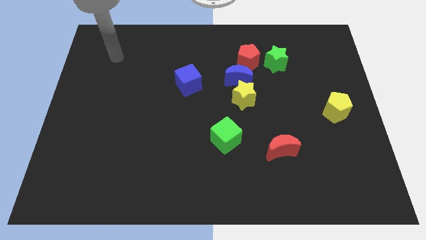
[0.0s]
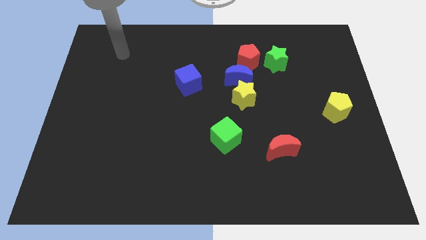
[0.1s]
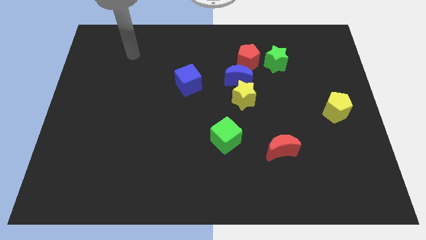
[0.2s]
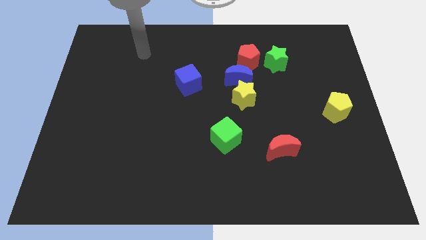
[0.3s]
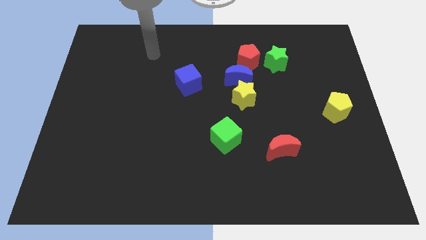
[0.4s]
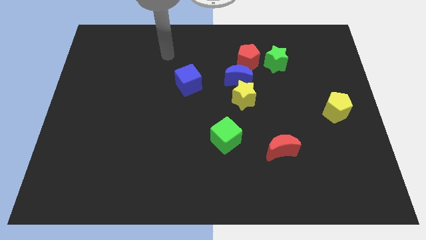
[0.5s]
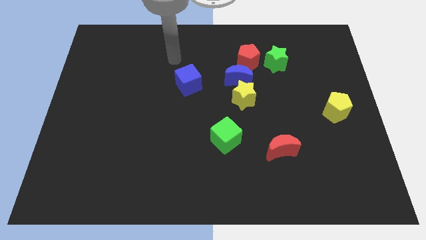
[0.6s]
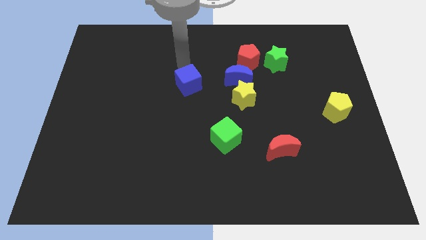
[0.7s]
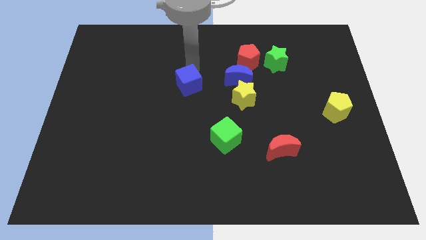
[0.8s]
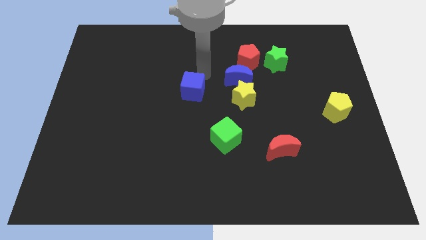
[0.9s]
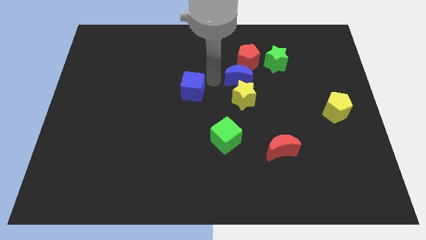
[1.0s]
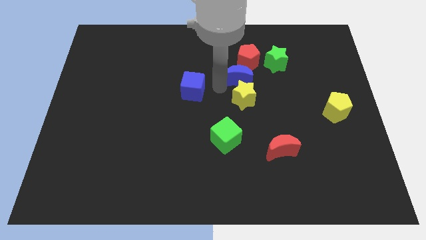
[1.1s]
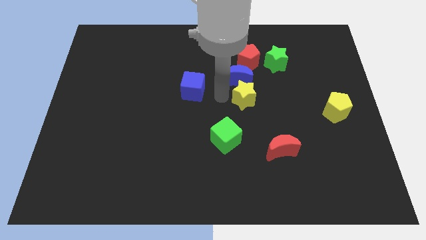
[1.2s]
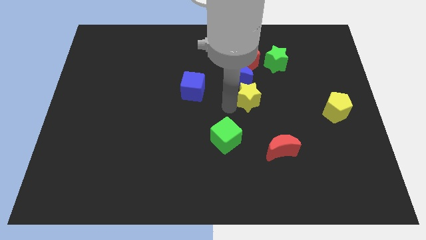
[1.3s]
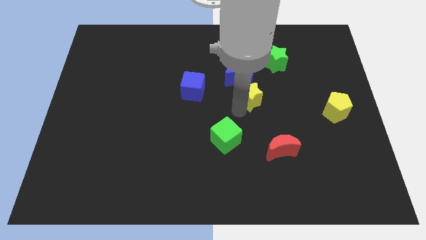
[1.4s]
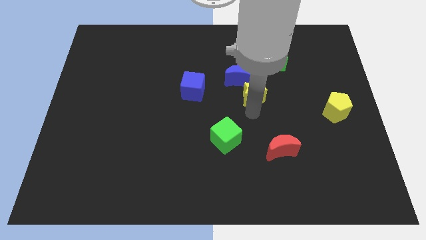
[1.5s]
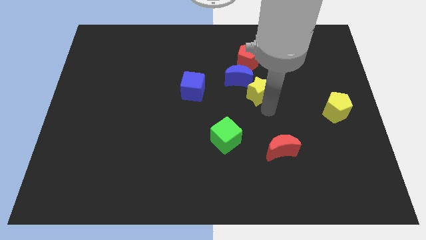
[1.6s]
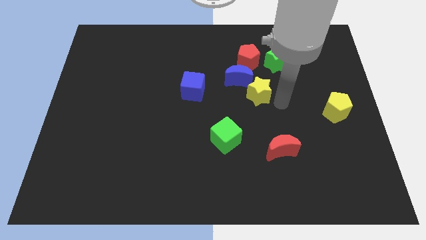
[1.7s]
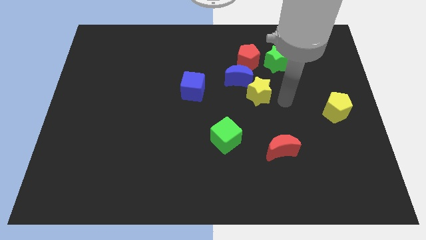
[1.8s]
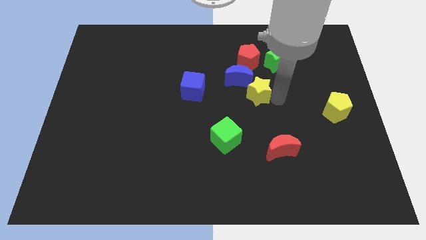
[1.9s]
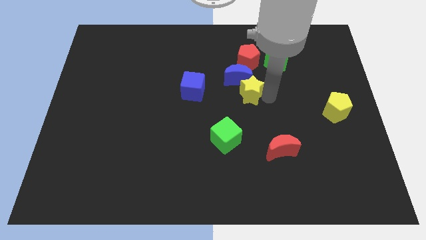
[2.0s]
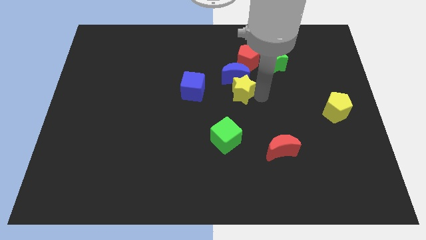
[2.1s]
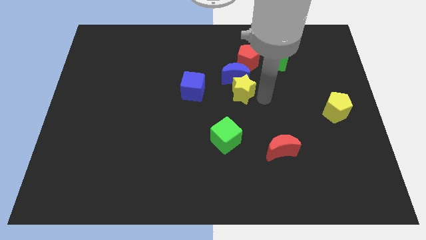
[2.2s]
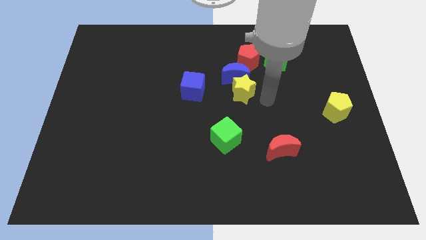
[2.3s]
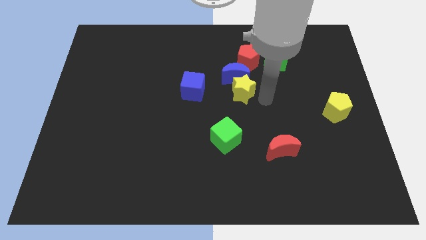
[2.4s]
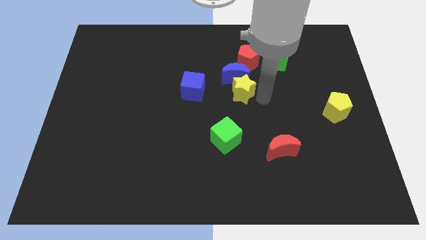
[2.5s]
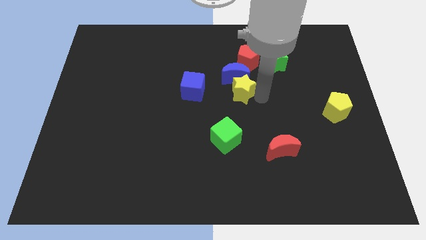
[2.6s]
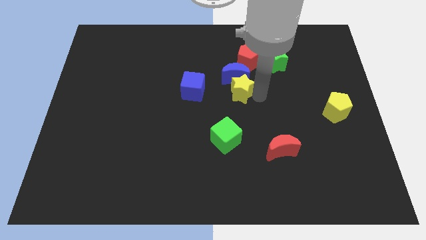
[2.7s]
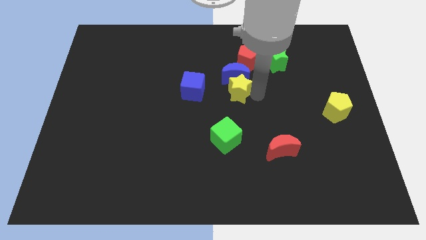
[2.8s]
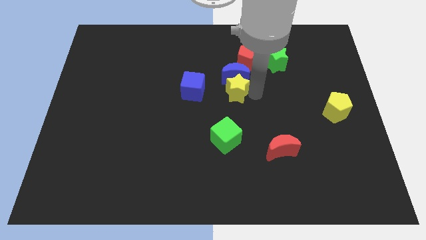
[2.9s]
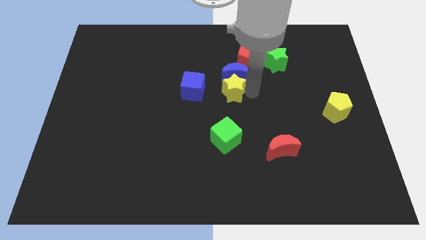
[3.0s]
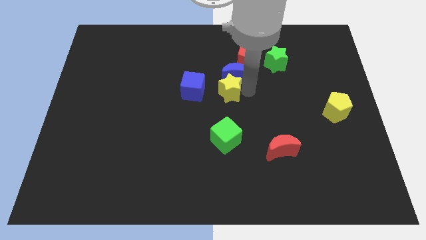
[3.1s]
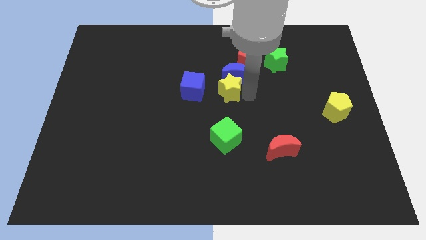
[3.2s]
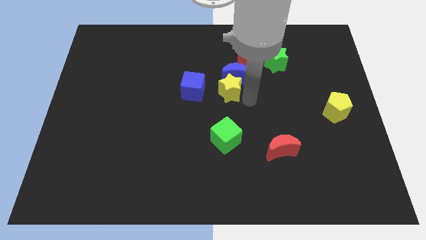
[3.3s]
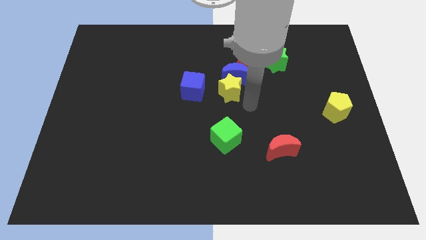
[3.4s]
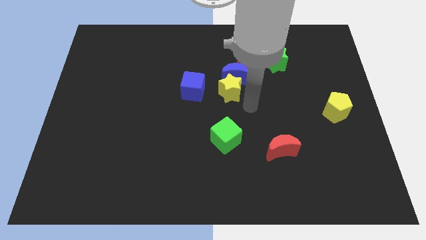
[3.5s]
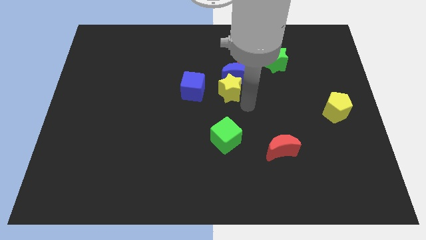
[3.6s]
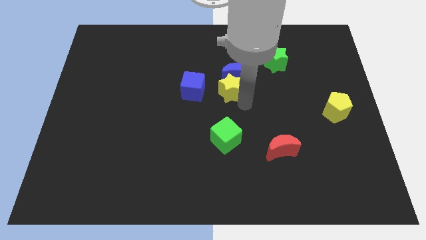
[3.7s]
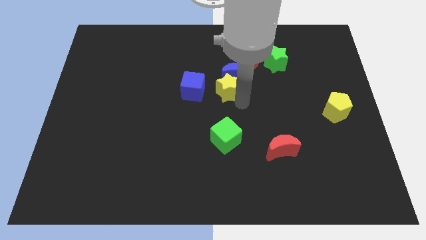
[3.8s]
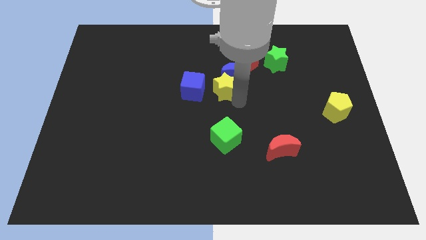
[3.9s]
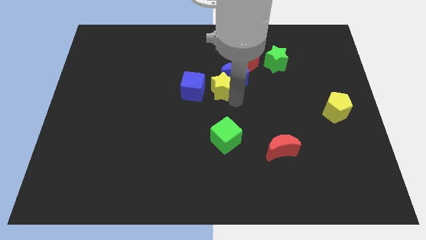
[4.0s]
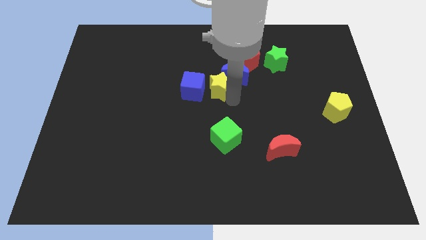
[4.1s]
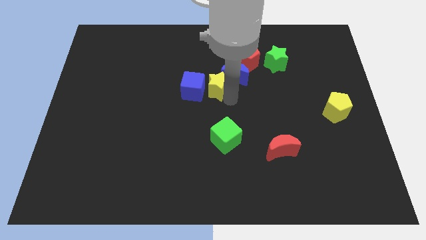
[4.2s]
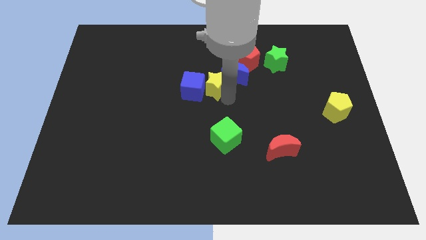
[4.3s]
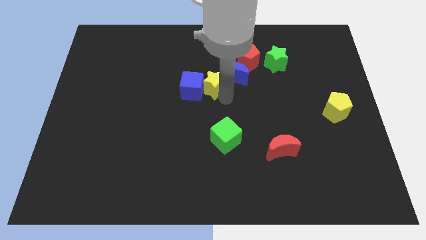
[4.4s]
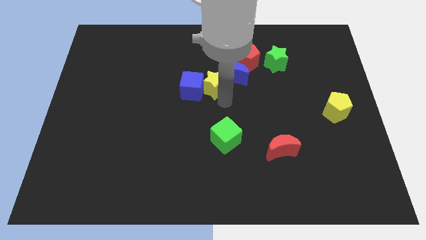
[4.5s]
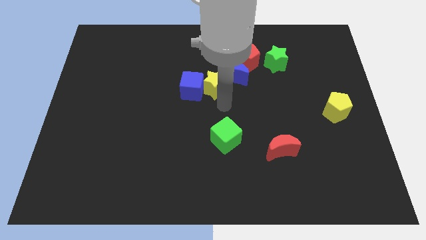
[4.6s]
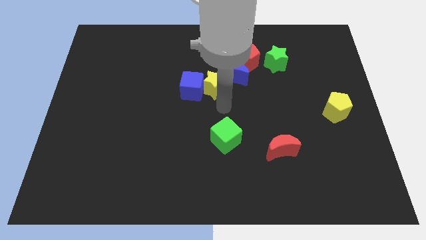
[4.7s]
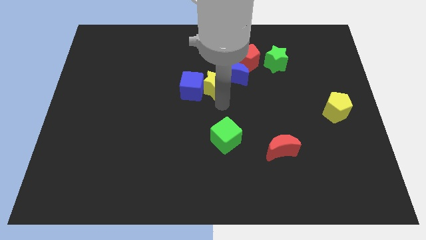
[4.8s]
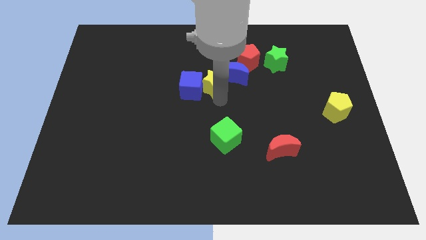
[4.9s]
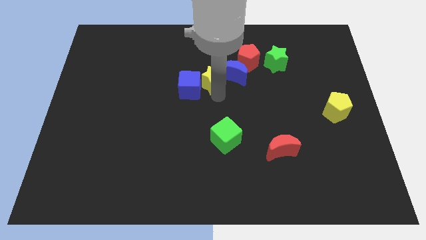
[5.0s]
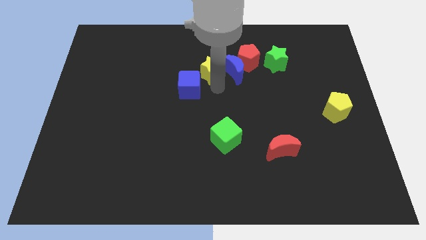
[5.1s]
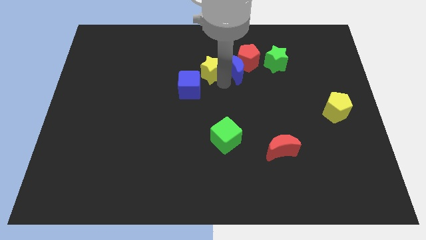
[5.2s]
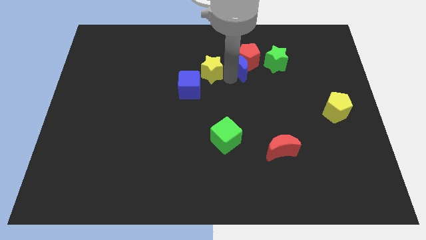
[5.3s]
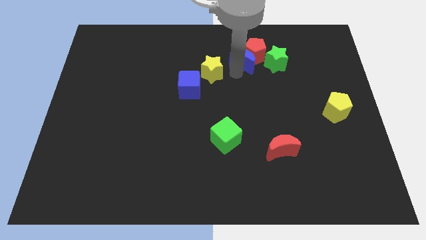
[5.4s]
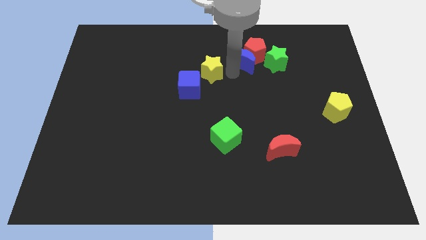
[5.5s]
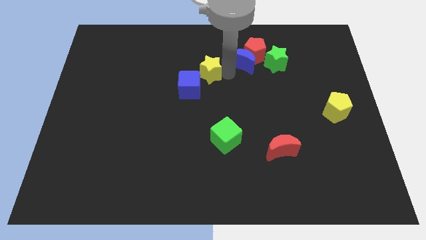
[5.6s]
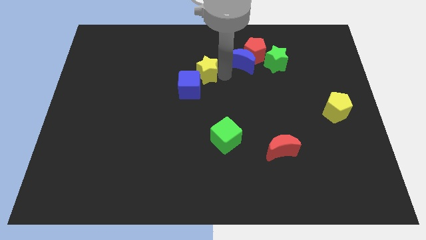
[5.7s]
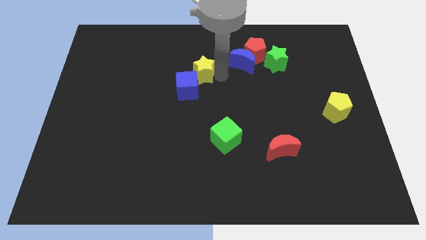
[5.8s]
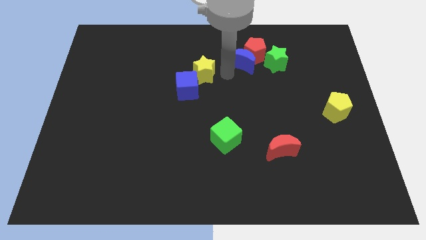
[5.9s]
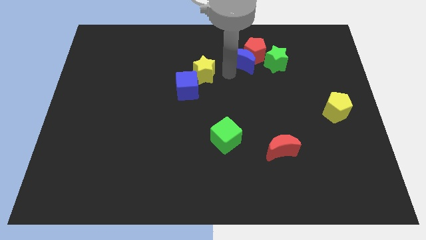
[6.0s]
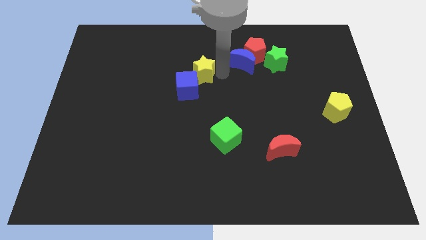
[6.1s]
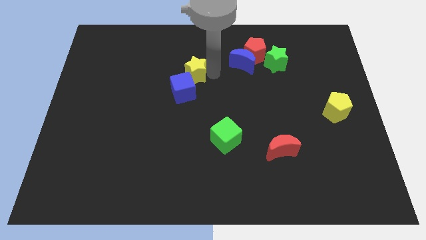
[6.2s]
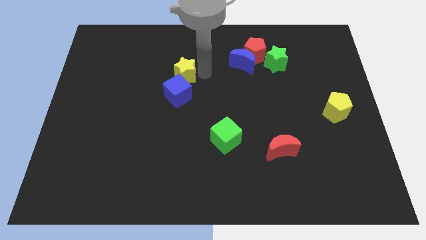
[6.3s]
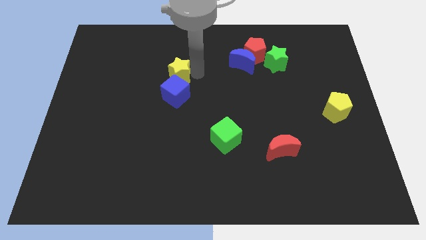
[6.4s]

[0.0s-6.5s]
move the yellow star to the top left side of the blue cube
